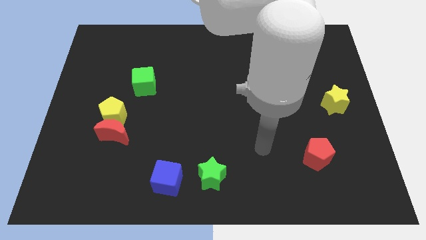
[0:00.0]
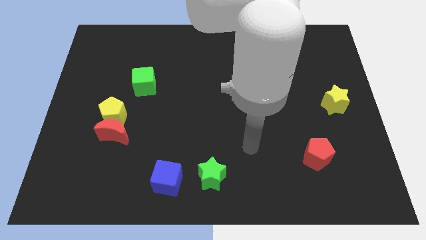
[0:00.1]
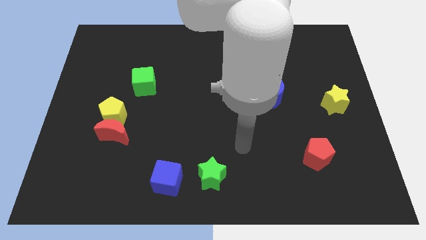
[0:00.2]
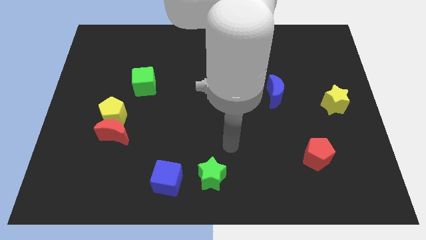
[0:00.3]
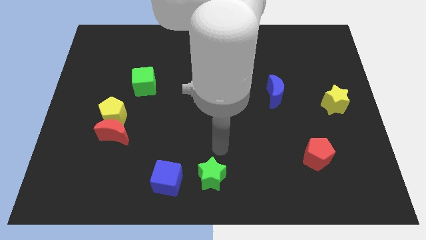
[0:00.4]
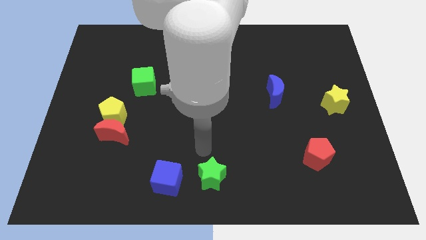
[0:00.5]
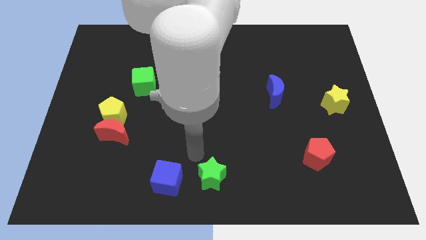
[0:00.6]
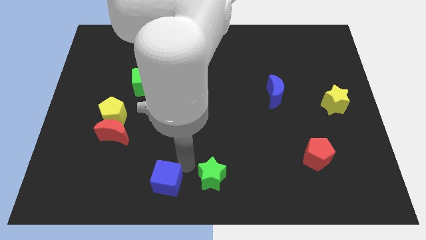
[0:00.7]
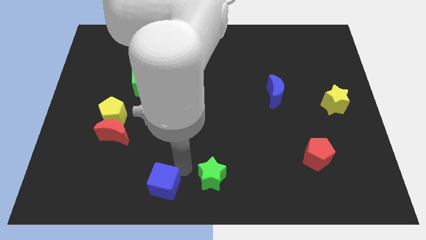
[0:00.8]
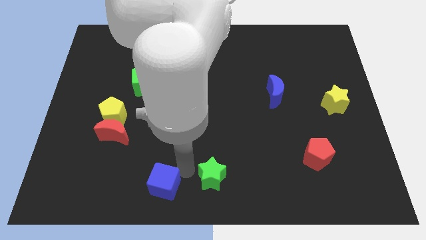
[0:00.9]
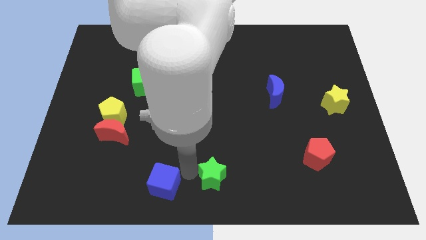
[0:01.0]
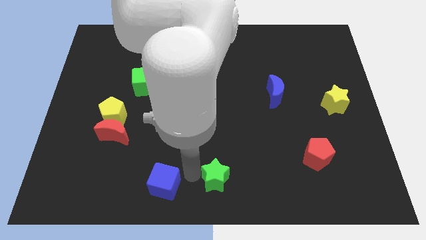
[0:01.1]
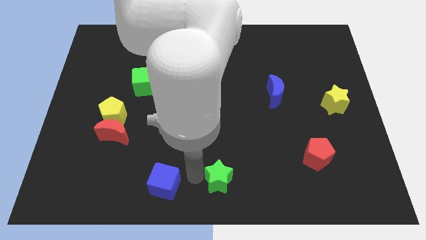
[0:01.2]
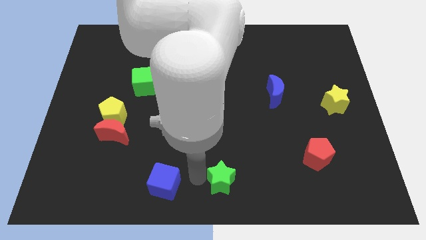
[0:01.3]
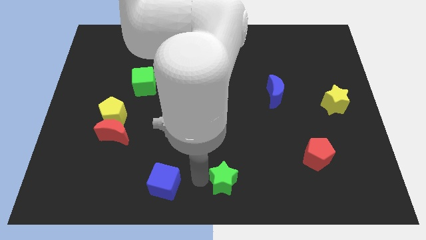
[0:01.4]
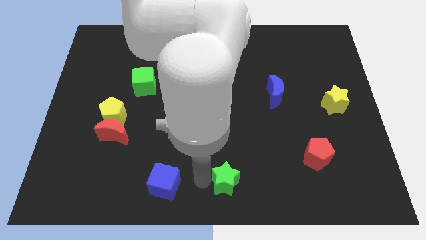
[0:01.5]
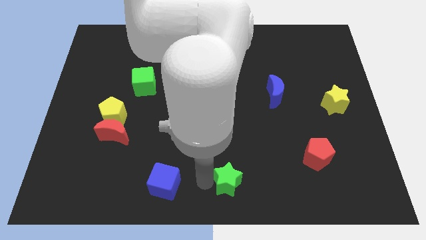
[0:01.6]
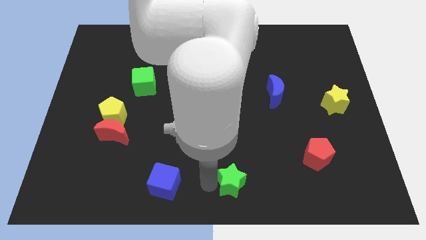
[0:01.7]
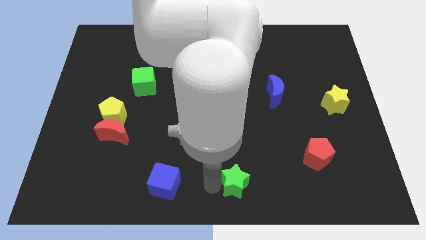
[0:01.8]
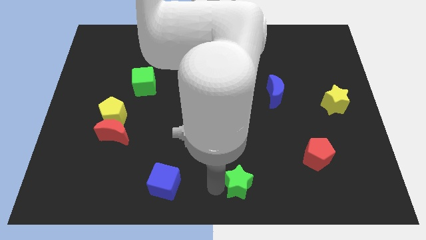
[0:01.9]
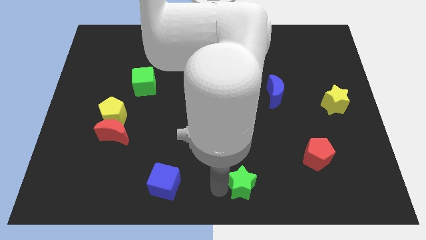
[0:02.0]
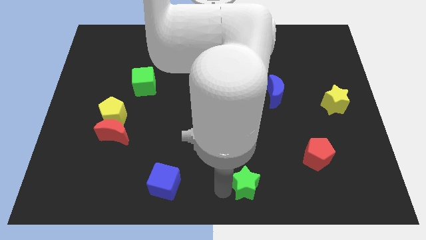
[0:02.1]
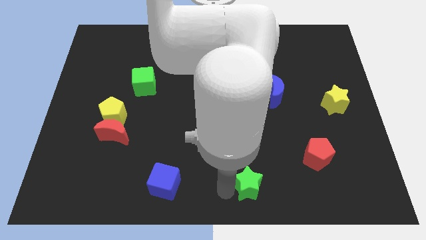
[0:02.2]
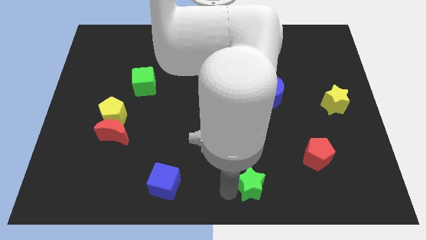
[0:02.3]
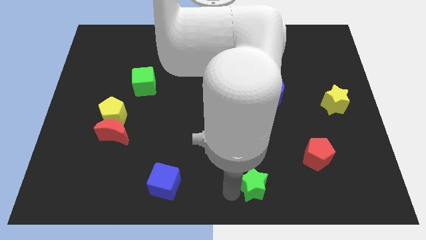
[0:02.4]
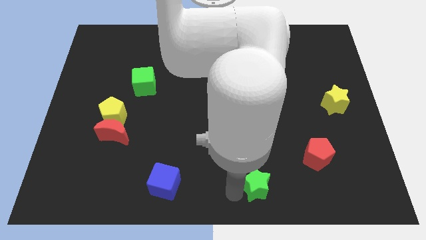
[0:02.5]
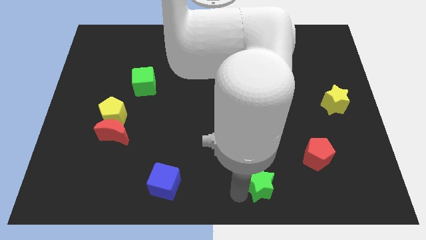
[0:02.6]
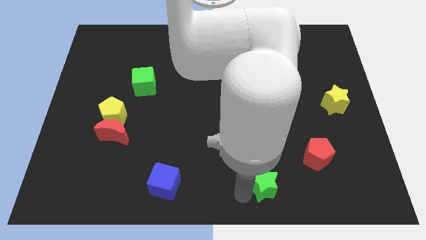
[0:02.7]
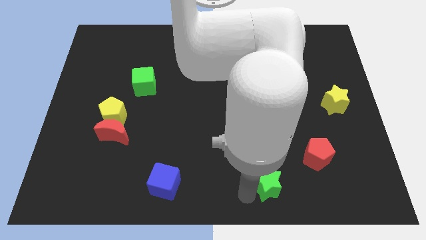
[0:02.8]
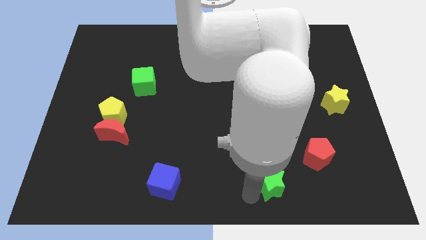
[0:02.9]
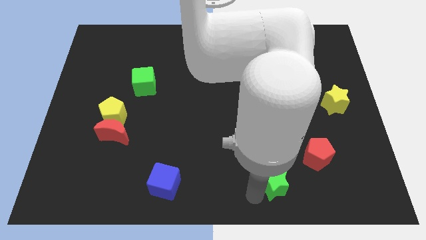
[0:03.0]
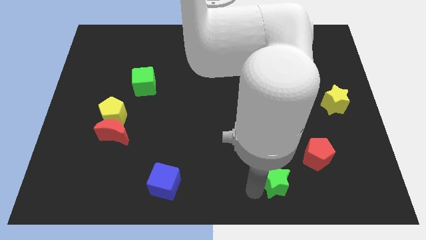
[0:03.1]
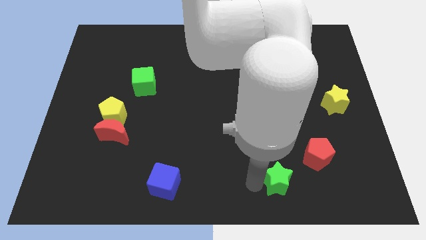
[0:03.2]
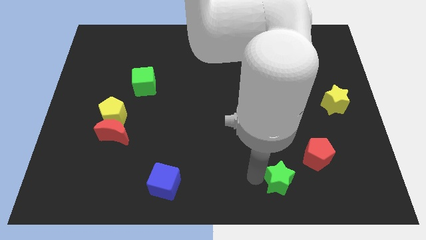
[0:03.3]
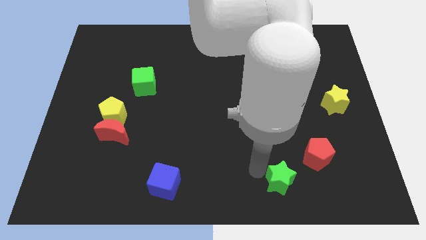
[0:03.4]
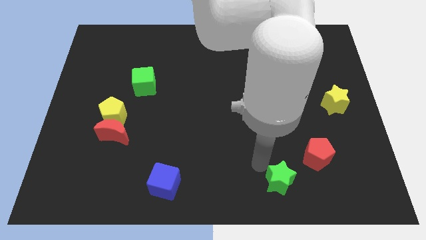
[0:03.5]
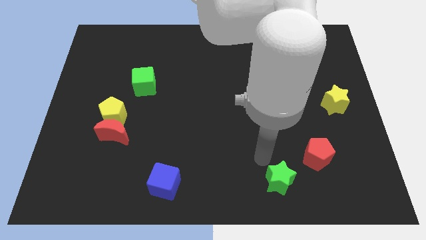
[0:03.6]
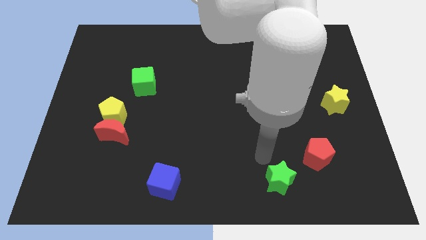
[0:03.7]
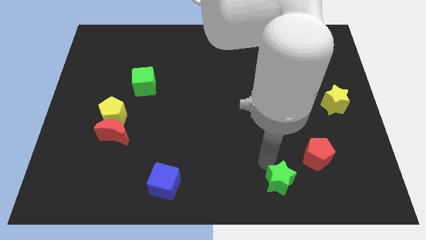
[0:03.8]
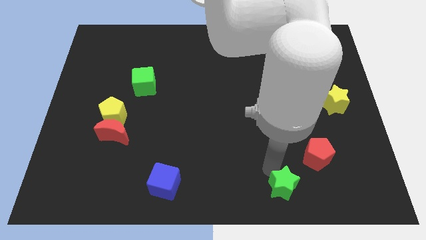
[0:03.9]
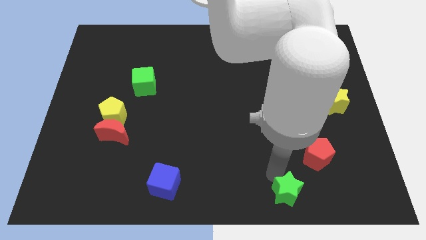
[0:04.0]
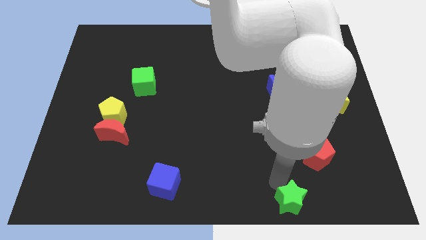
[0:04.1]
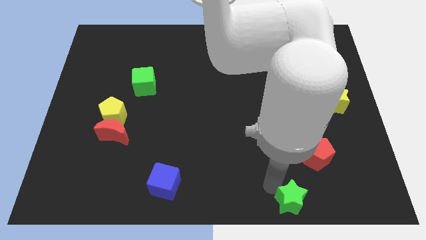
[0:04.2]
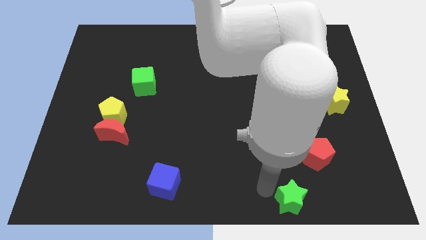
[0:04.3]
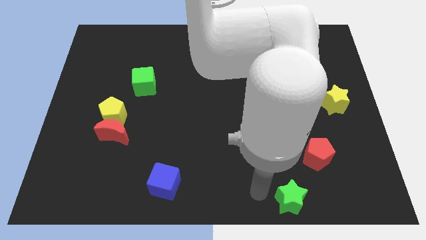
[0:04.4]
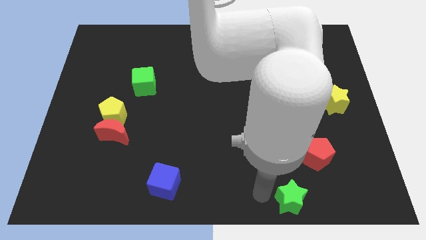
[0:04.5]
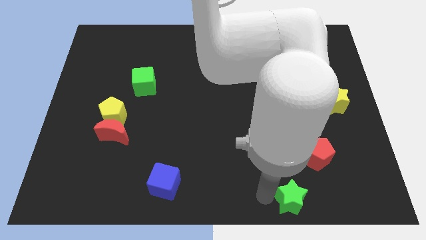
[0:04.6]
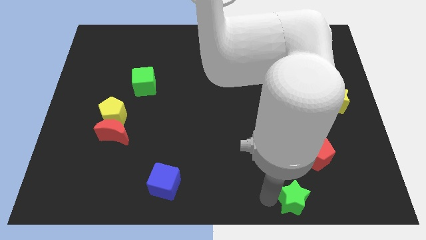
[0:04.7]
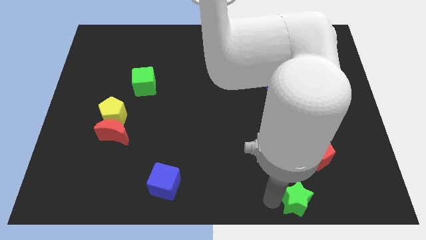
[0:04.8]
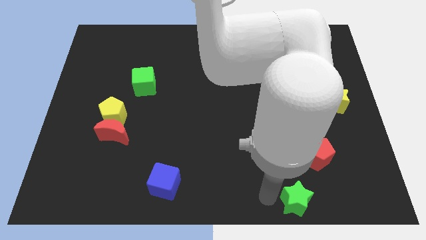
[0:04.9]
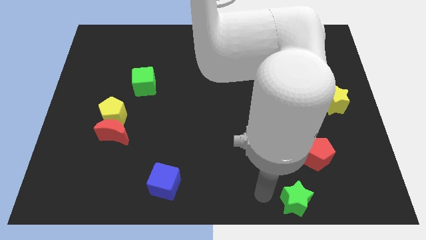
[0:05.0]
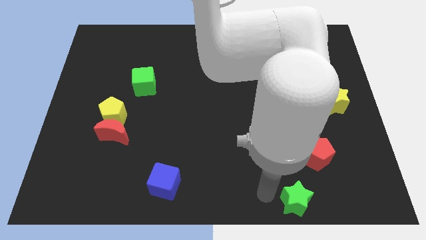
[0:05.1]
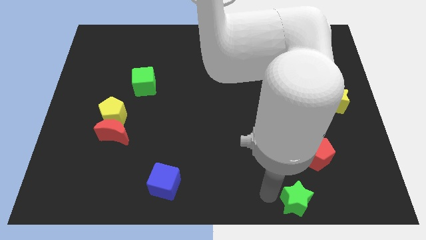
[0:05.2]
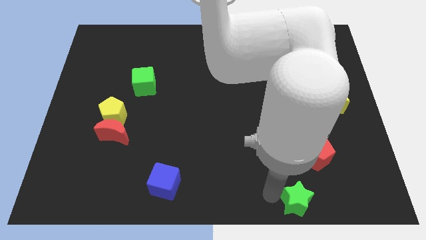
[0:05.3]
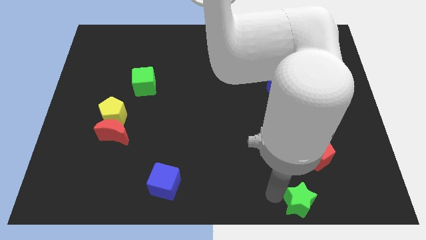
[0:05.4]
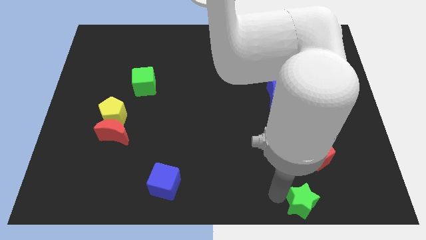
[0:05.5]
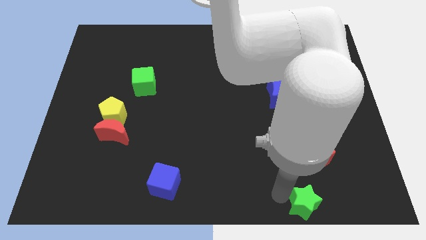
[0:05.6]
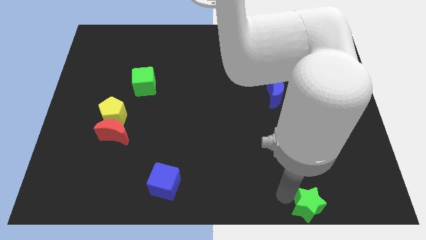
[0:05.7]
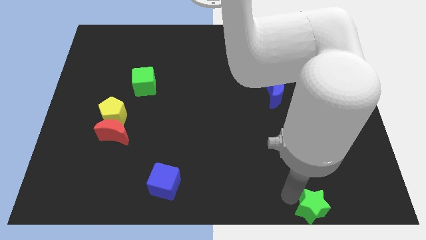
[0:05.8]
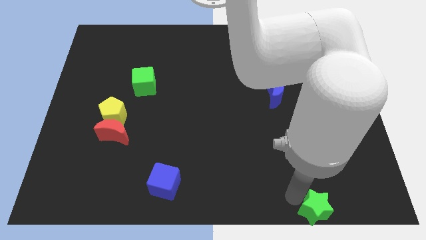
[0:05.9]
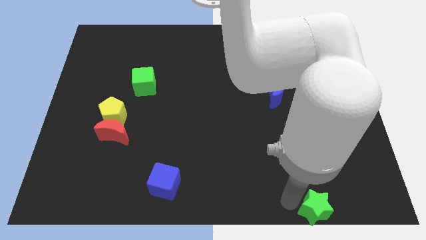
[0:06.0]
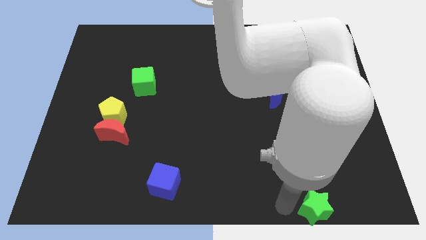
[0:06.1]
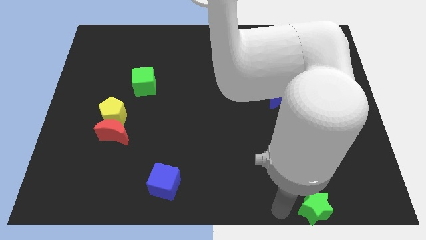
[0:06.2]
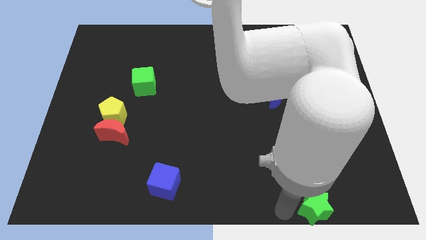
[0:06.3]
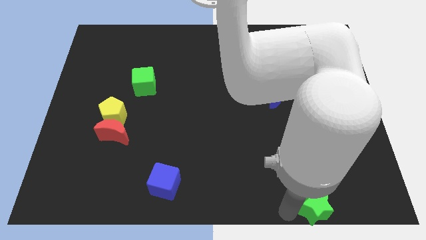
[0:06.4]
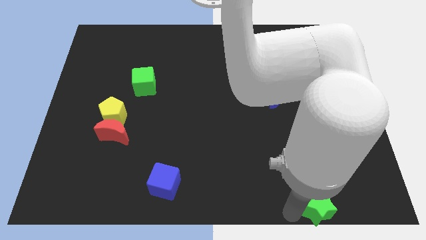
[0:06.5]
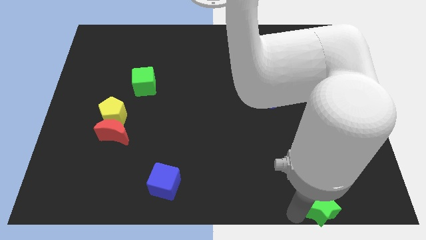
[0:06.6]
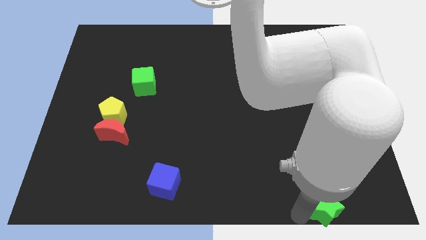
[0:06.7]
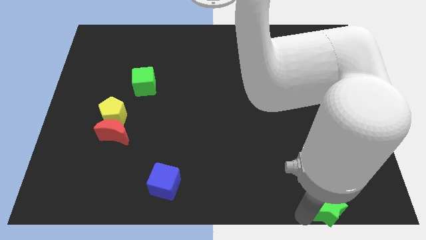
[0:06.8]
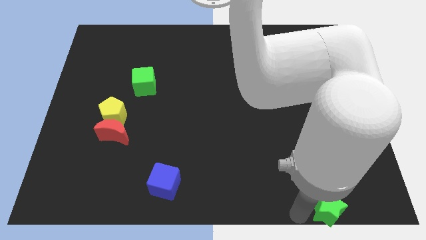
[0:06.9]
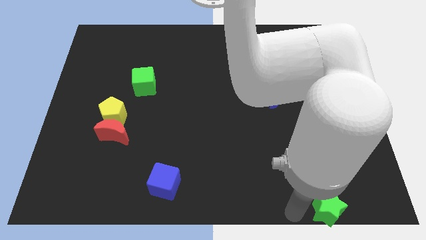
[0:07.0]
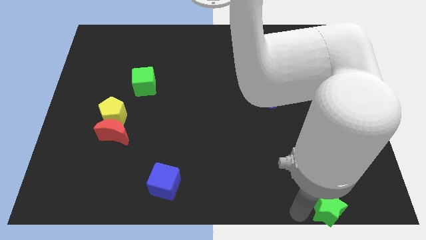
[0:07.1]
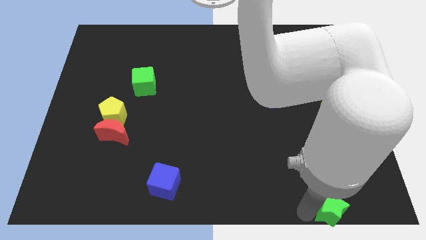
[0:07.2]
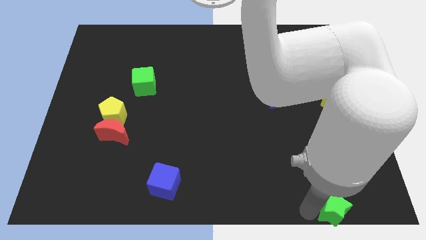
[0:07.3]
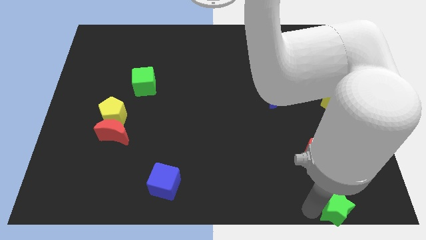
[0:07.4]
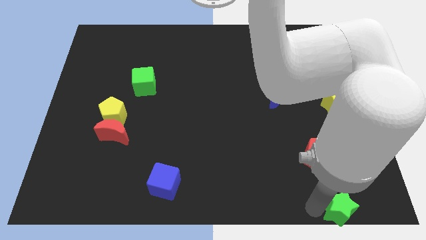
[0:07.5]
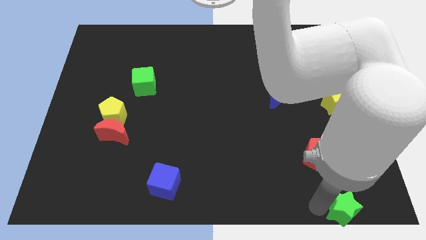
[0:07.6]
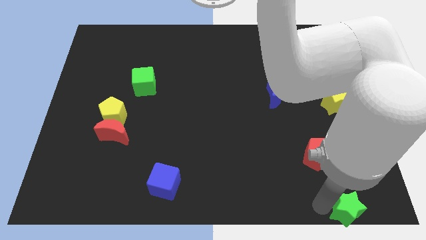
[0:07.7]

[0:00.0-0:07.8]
move the green star to the bottom right
